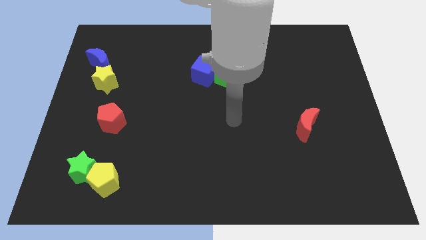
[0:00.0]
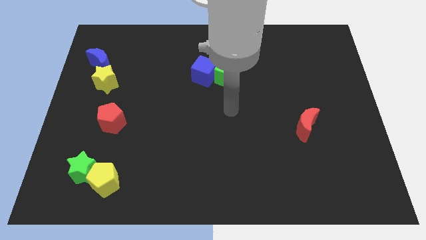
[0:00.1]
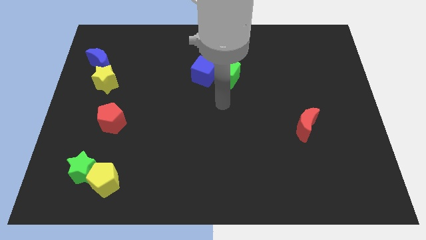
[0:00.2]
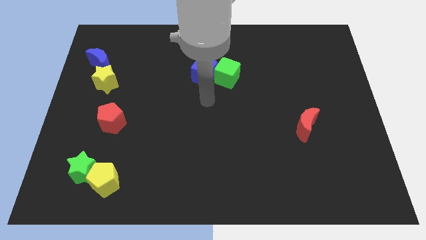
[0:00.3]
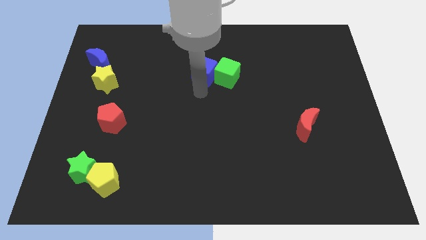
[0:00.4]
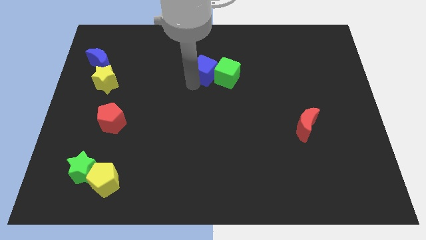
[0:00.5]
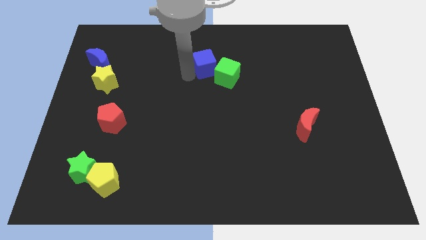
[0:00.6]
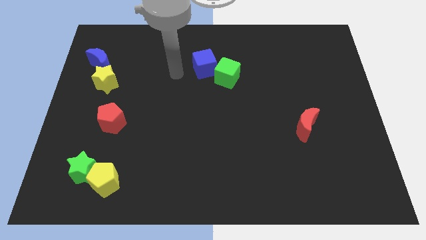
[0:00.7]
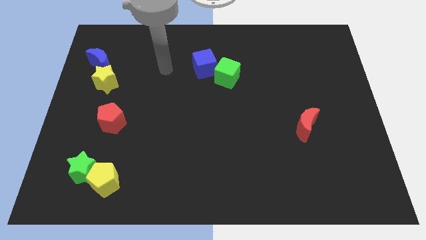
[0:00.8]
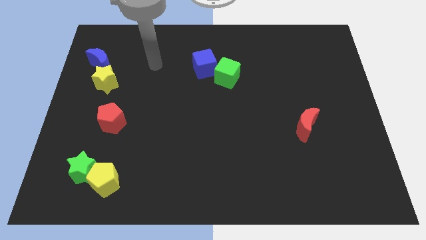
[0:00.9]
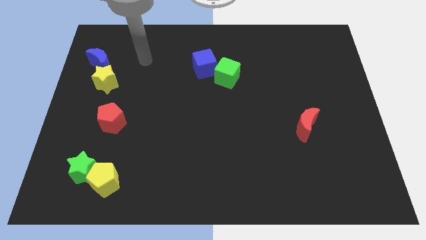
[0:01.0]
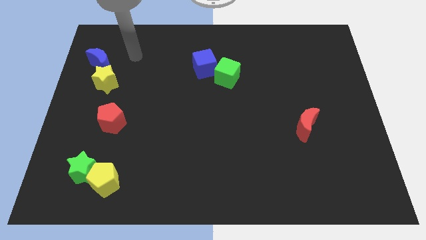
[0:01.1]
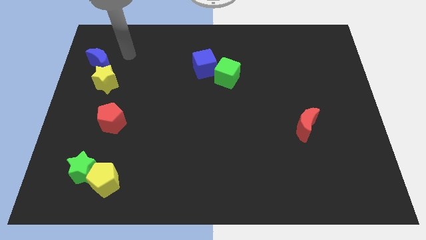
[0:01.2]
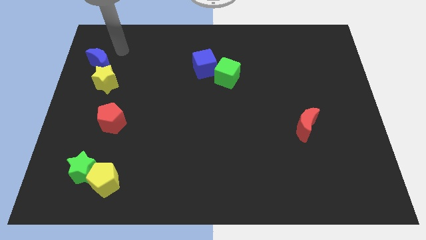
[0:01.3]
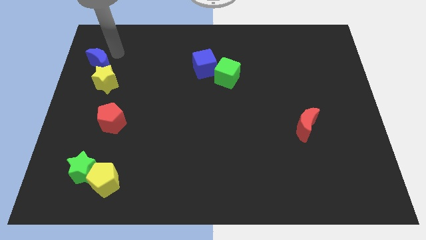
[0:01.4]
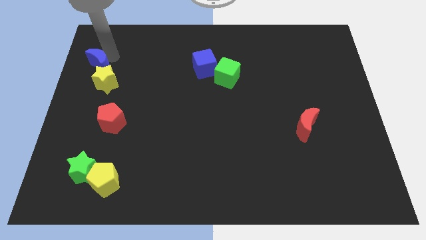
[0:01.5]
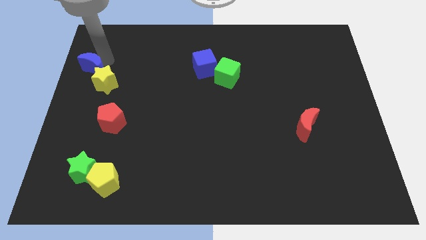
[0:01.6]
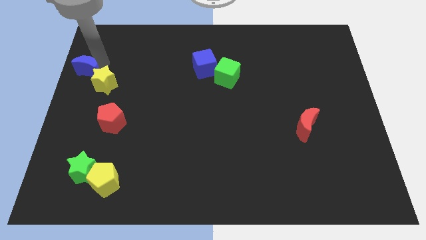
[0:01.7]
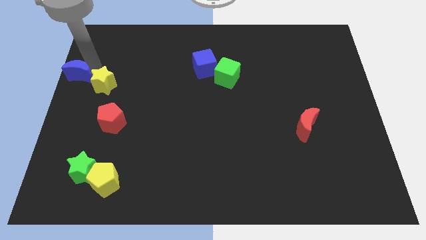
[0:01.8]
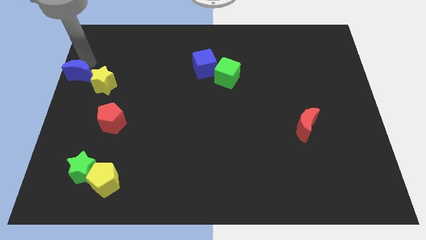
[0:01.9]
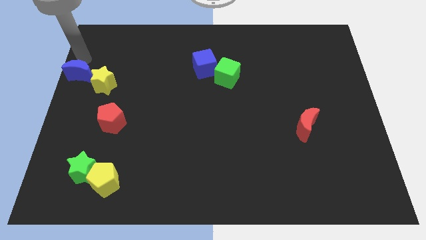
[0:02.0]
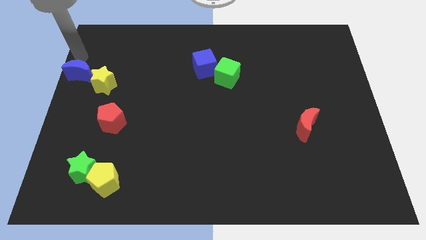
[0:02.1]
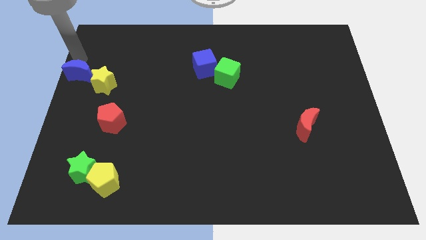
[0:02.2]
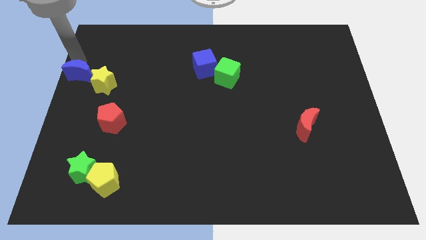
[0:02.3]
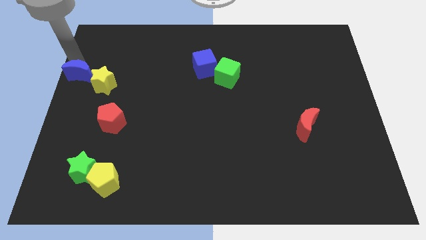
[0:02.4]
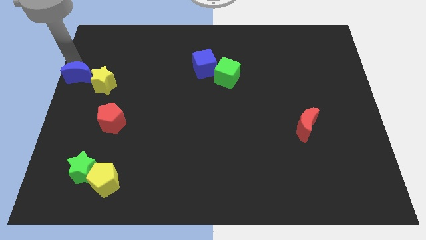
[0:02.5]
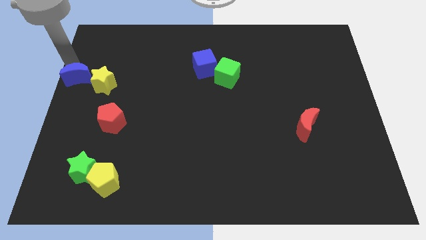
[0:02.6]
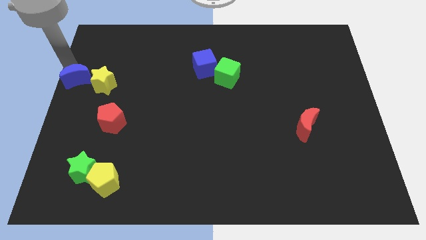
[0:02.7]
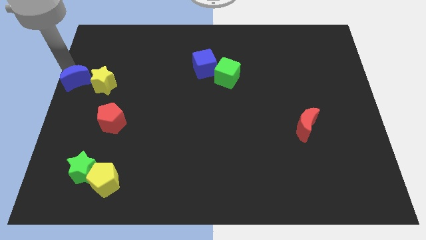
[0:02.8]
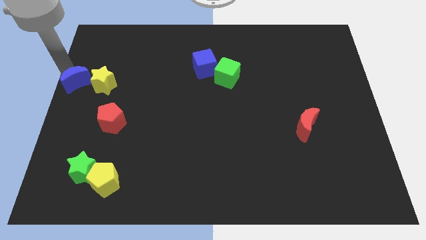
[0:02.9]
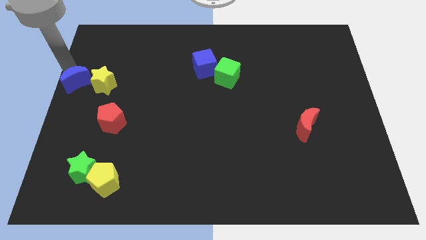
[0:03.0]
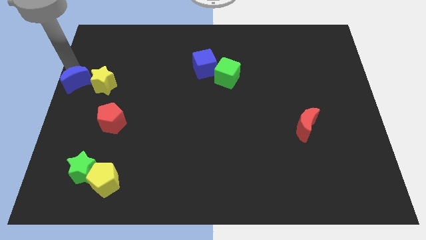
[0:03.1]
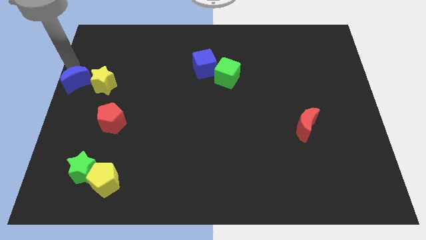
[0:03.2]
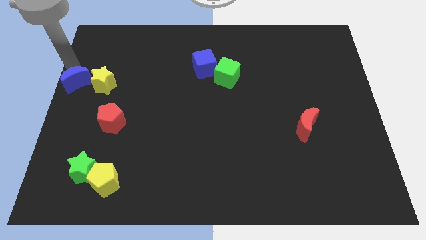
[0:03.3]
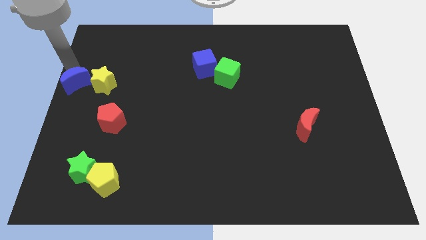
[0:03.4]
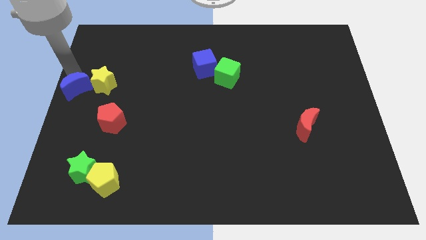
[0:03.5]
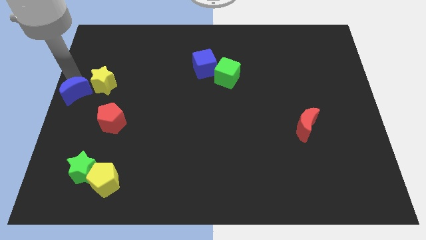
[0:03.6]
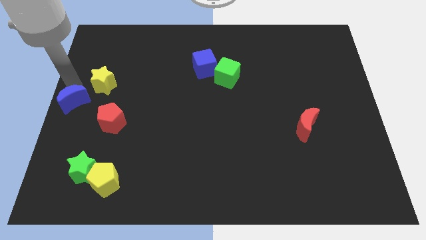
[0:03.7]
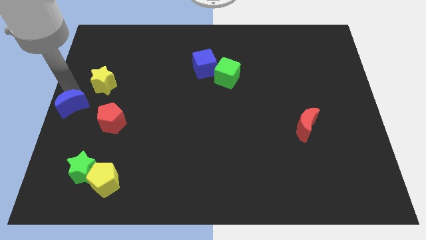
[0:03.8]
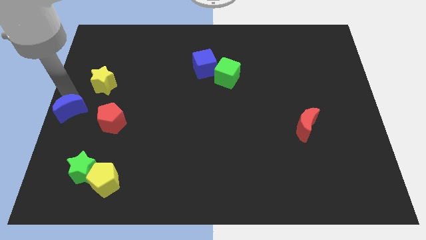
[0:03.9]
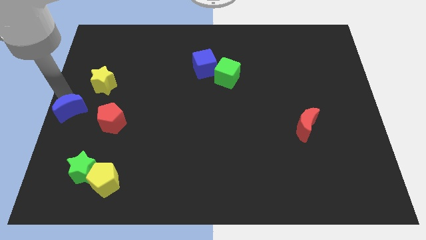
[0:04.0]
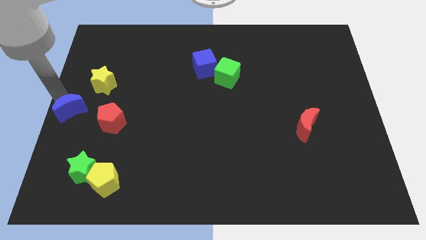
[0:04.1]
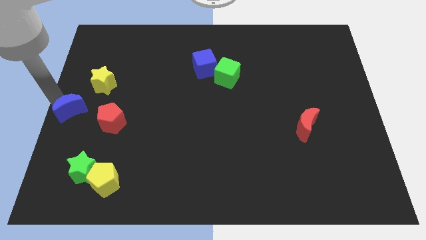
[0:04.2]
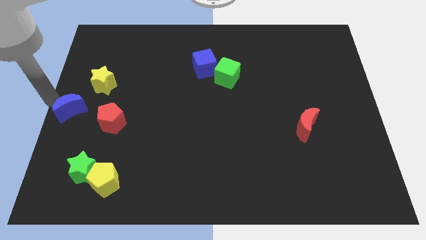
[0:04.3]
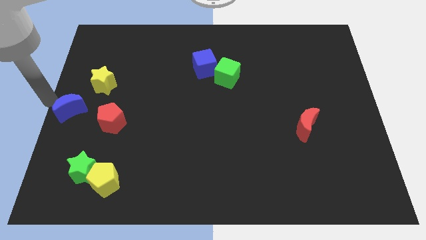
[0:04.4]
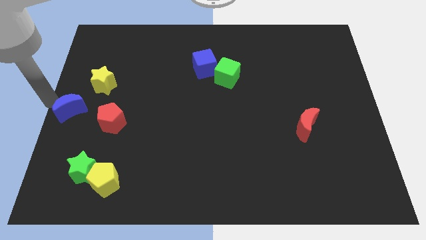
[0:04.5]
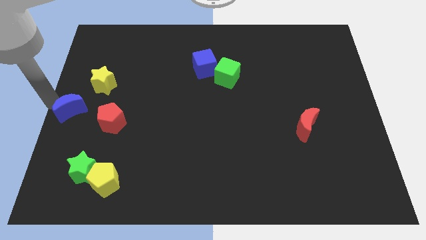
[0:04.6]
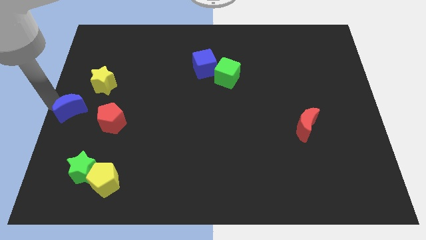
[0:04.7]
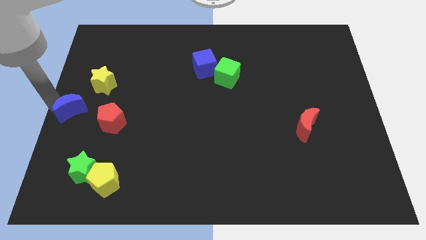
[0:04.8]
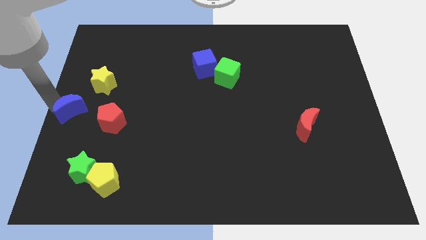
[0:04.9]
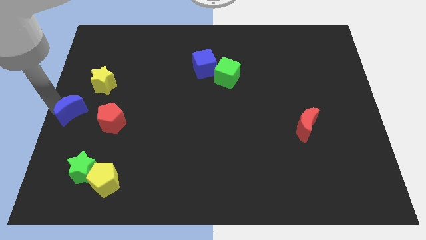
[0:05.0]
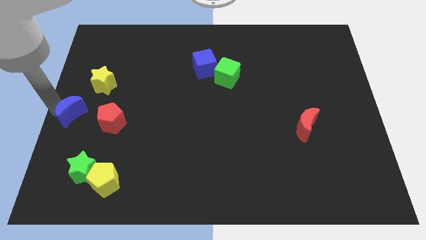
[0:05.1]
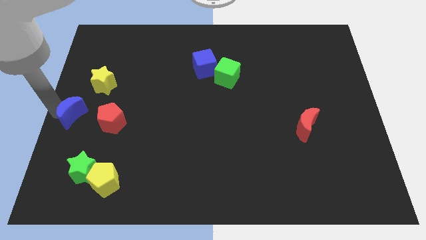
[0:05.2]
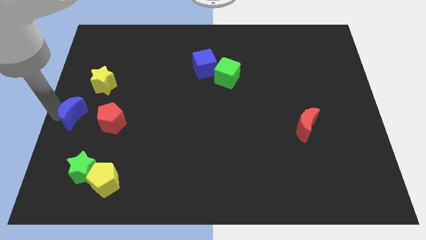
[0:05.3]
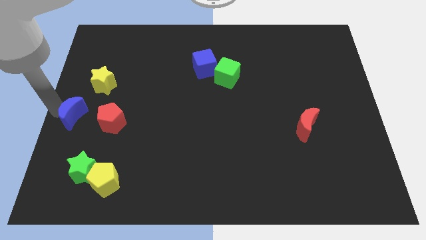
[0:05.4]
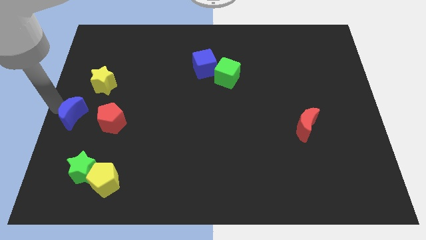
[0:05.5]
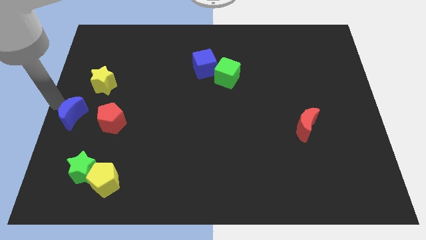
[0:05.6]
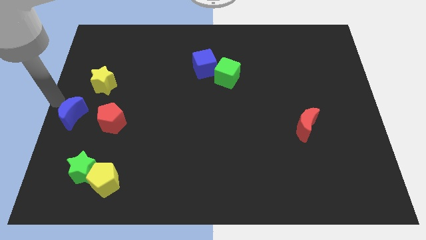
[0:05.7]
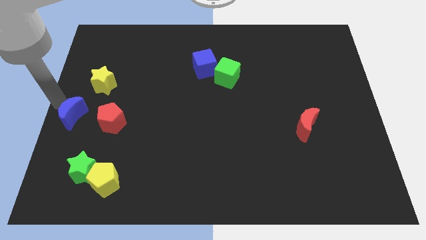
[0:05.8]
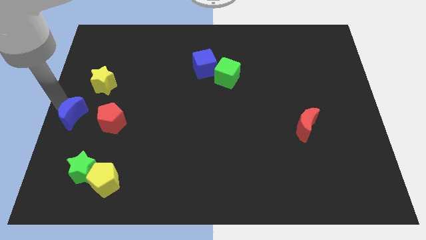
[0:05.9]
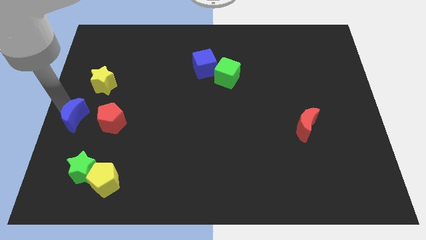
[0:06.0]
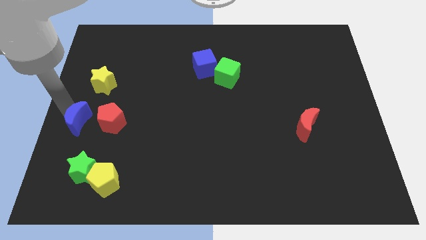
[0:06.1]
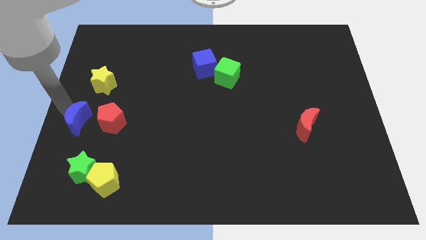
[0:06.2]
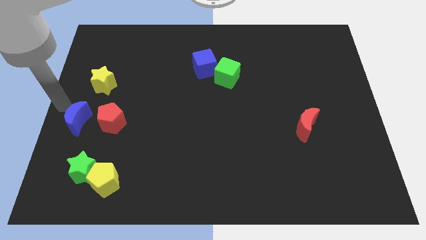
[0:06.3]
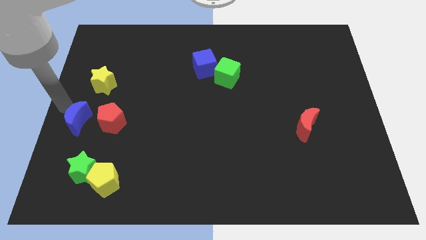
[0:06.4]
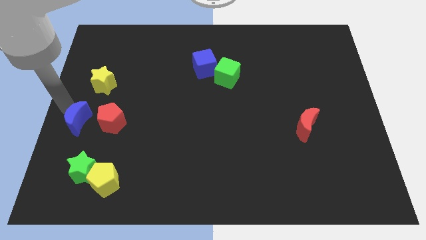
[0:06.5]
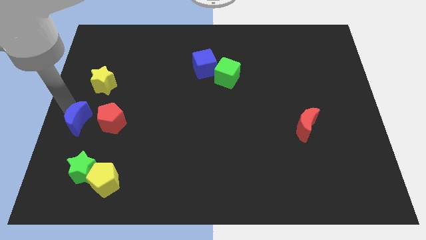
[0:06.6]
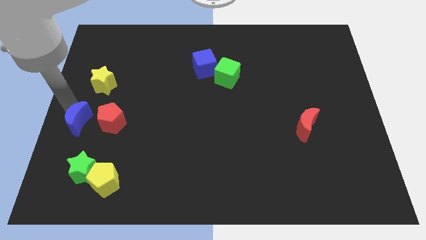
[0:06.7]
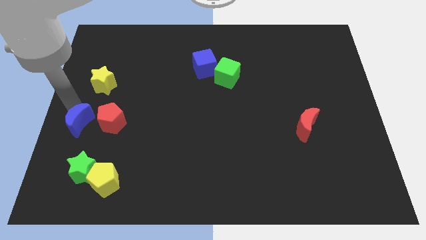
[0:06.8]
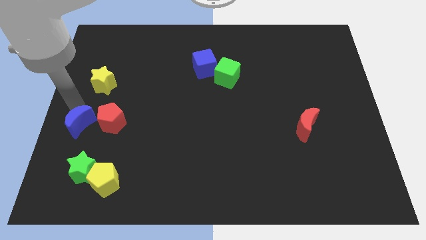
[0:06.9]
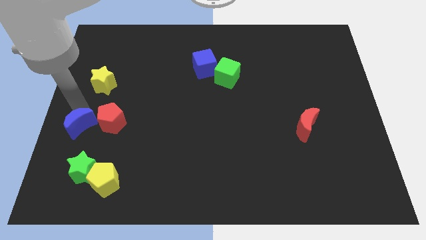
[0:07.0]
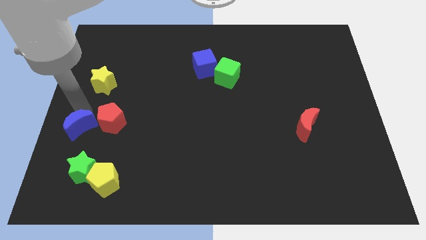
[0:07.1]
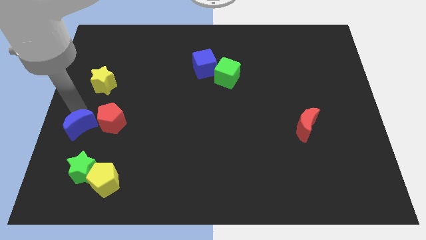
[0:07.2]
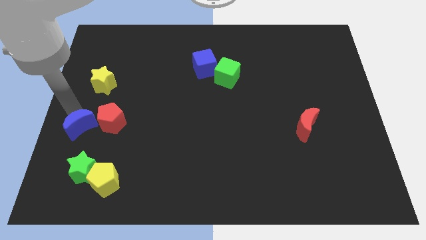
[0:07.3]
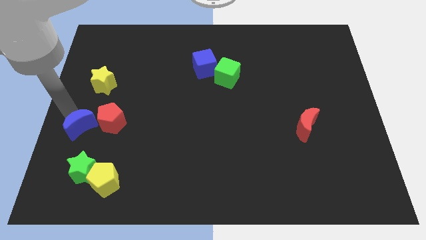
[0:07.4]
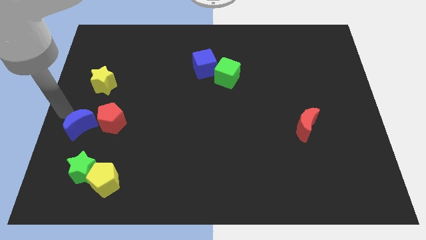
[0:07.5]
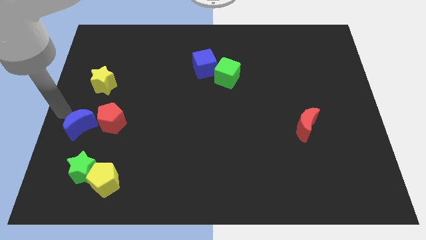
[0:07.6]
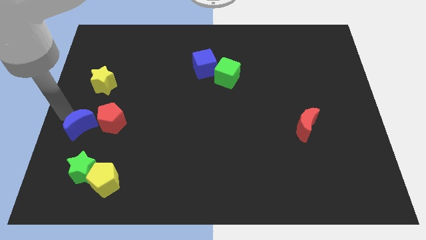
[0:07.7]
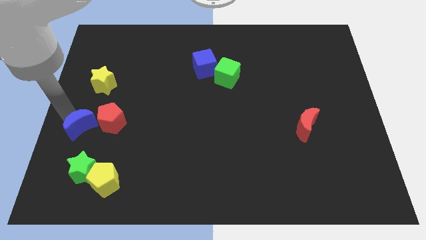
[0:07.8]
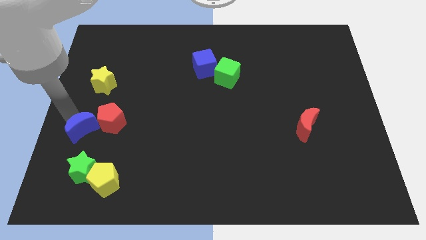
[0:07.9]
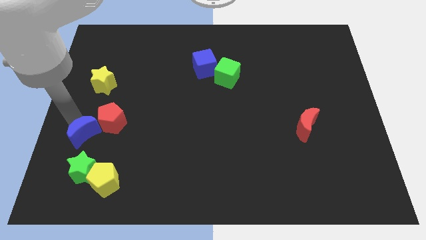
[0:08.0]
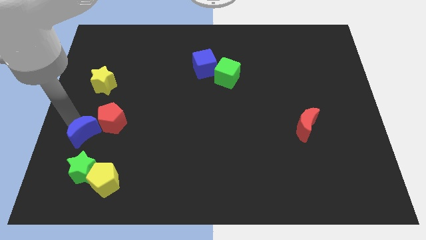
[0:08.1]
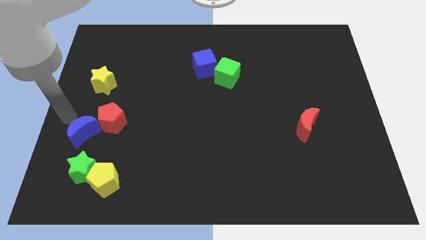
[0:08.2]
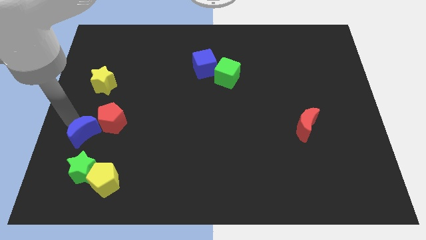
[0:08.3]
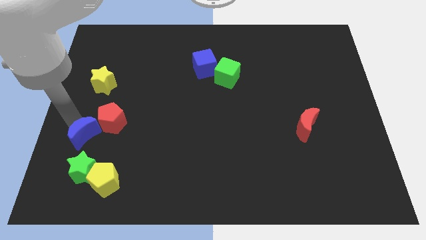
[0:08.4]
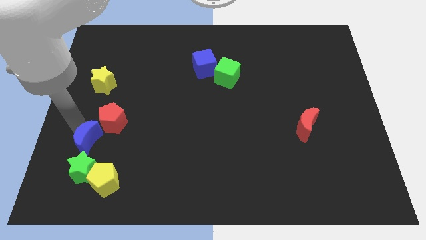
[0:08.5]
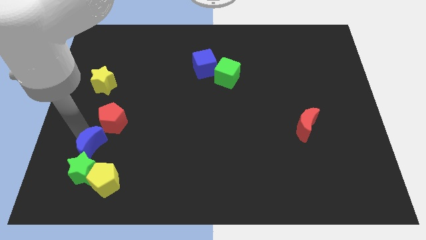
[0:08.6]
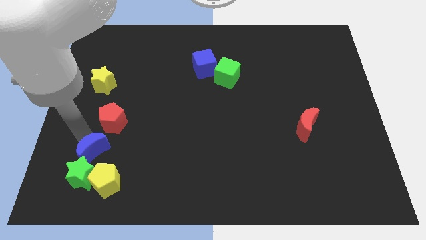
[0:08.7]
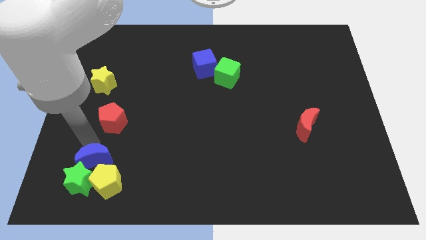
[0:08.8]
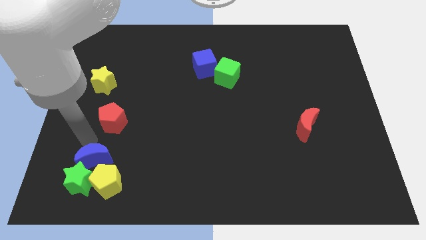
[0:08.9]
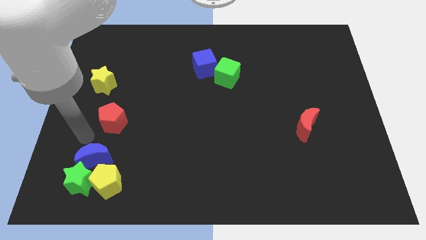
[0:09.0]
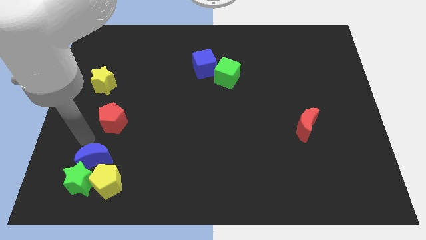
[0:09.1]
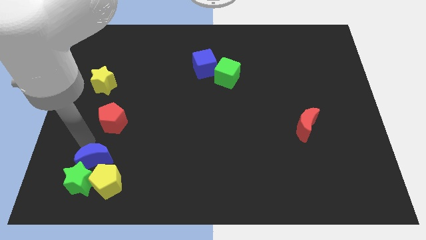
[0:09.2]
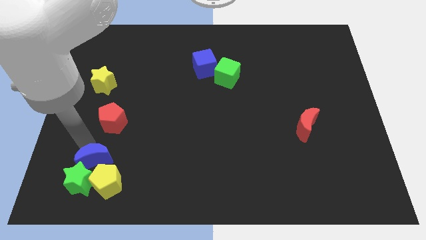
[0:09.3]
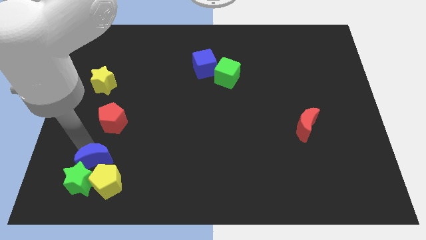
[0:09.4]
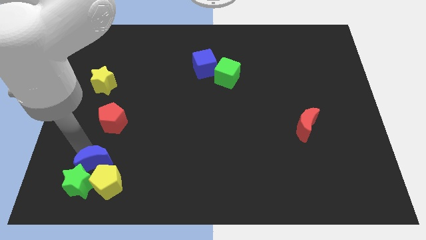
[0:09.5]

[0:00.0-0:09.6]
move the blue moon to the yellow pentagon
